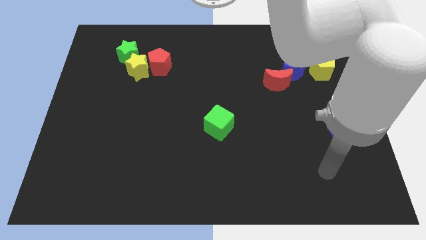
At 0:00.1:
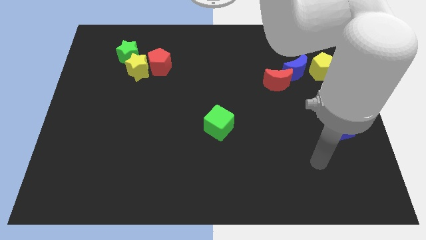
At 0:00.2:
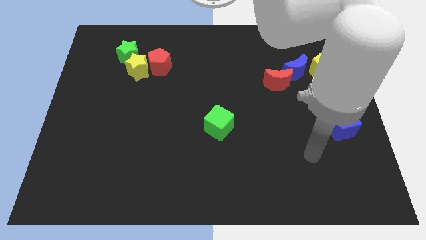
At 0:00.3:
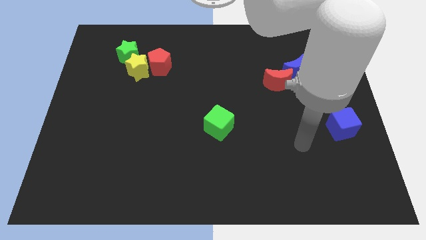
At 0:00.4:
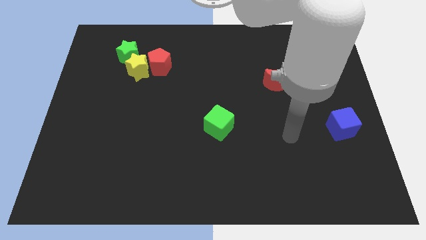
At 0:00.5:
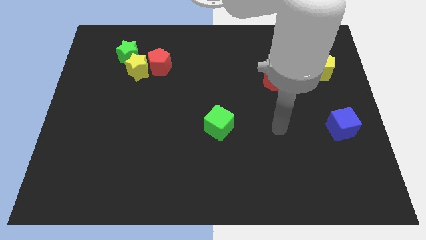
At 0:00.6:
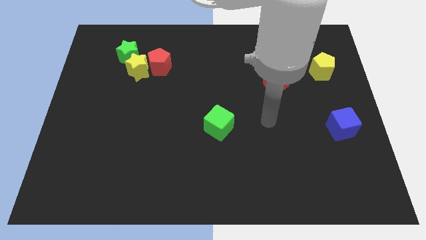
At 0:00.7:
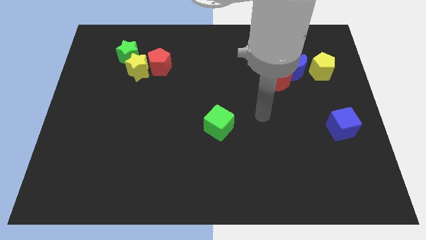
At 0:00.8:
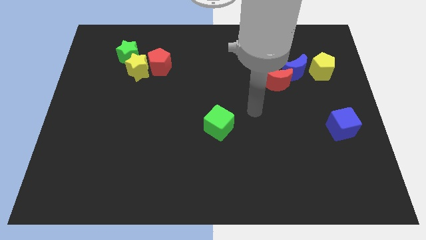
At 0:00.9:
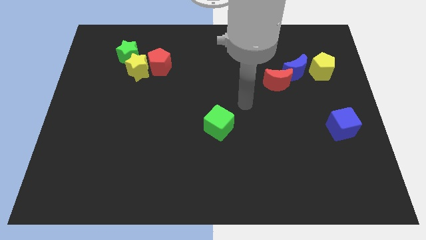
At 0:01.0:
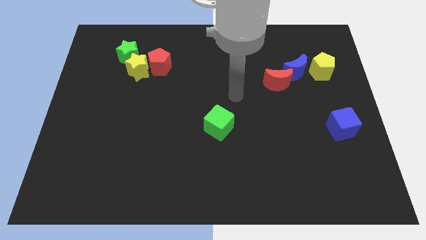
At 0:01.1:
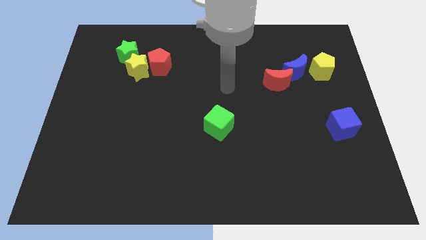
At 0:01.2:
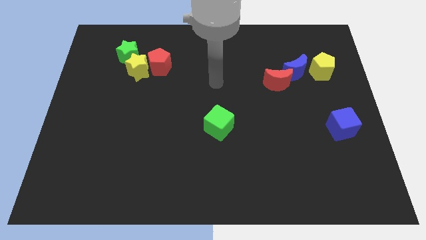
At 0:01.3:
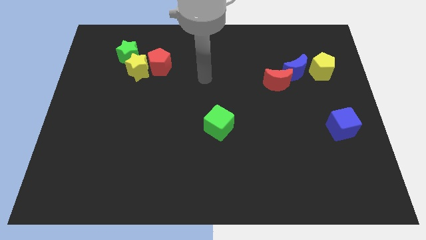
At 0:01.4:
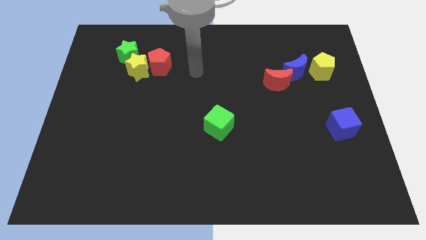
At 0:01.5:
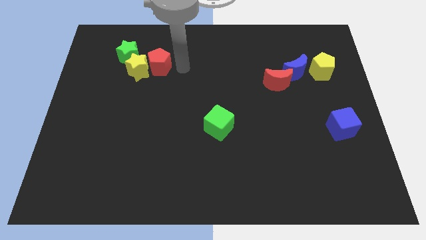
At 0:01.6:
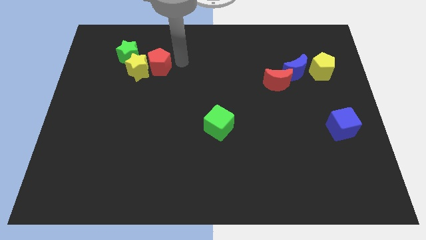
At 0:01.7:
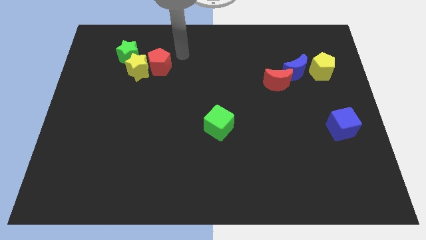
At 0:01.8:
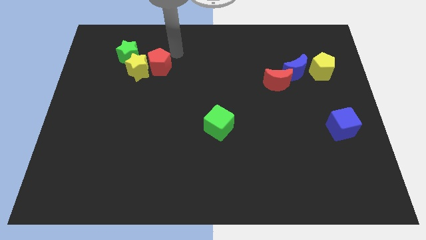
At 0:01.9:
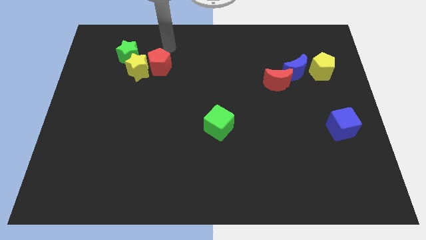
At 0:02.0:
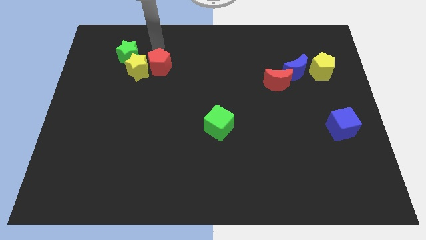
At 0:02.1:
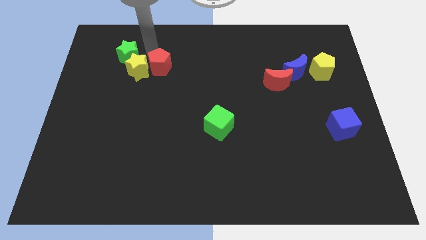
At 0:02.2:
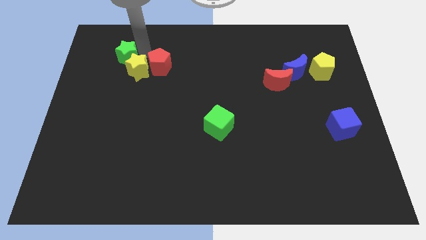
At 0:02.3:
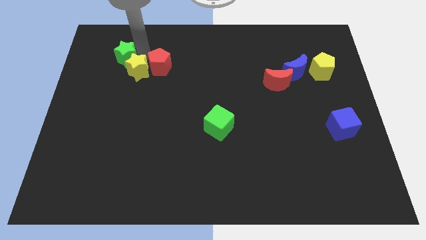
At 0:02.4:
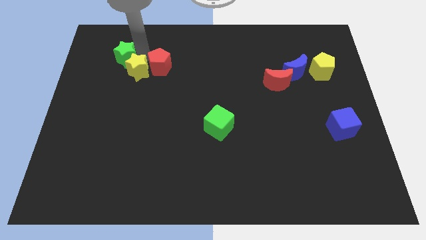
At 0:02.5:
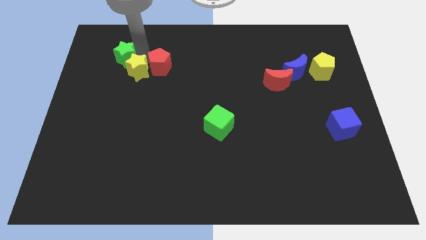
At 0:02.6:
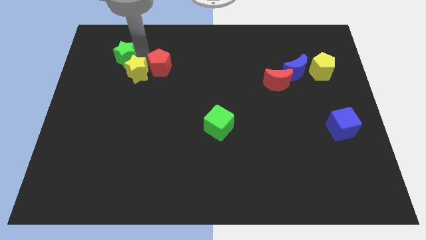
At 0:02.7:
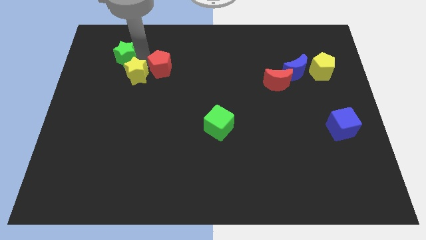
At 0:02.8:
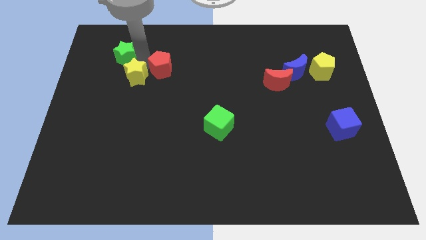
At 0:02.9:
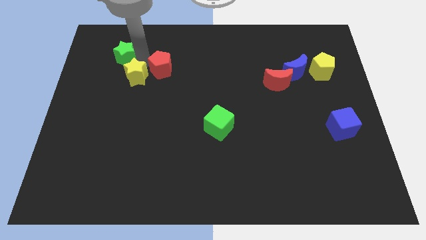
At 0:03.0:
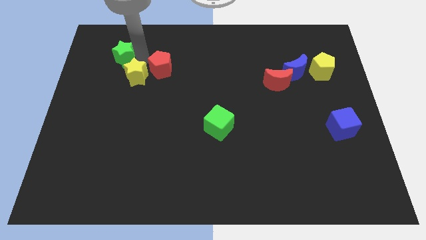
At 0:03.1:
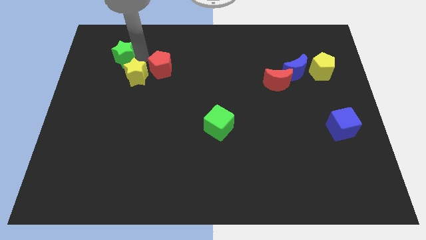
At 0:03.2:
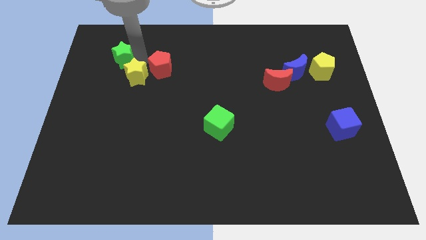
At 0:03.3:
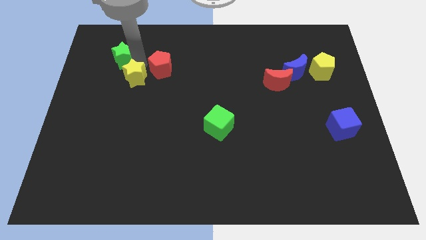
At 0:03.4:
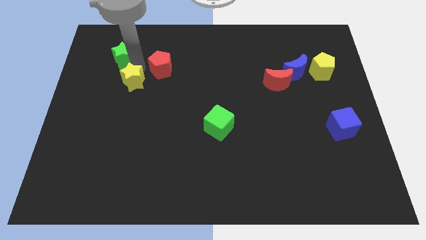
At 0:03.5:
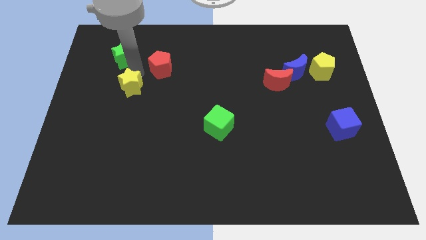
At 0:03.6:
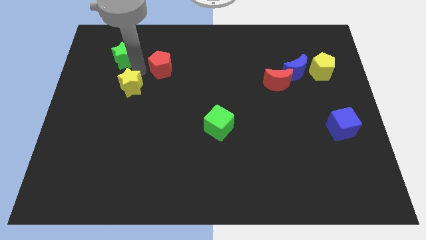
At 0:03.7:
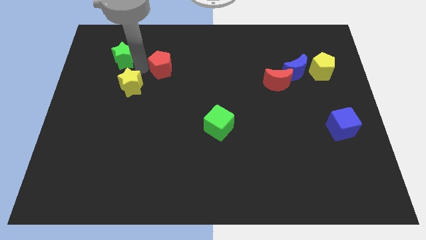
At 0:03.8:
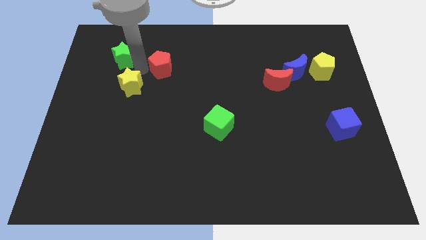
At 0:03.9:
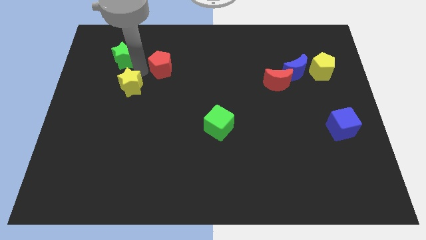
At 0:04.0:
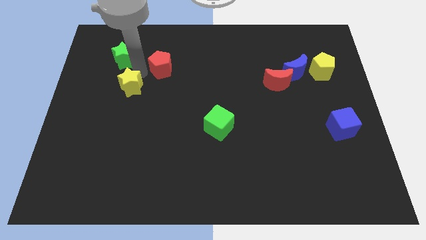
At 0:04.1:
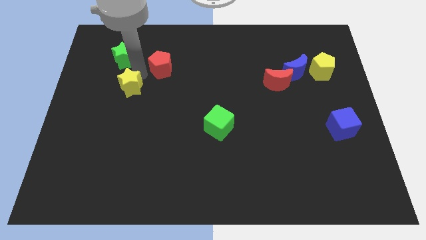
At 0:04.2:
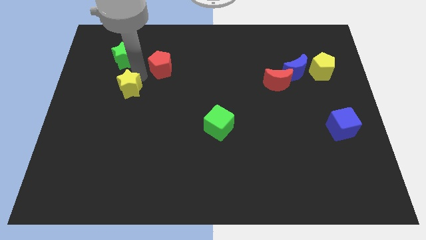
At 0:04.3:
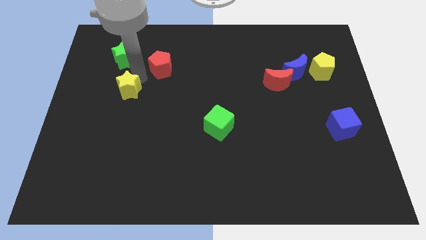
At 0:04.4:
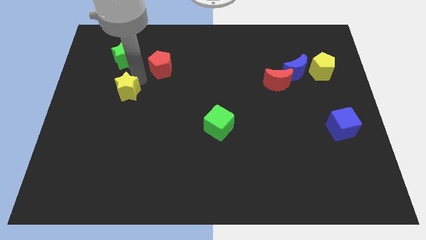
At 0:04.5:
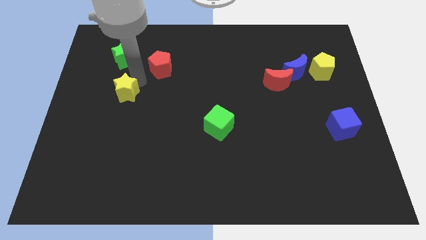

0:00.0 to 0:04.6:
separate the yellow star from the green star and red pentagon

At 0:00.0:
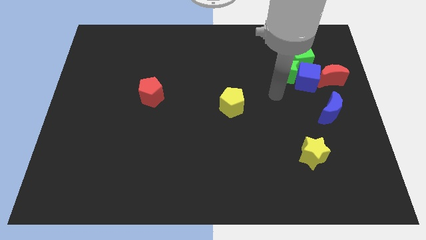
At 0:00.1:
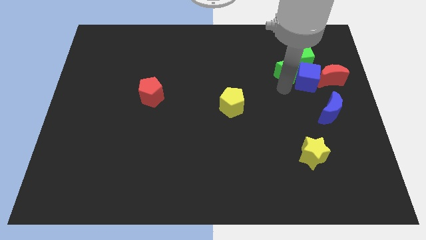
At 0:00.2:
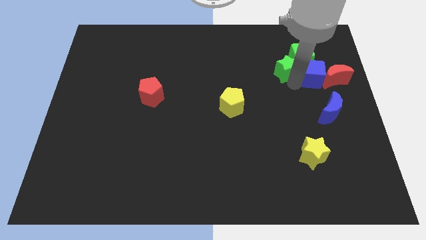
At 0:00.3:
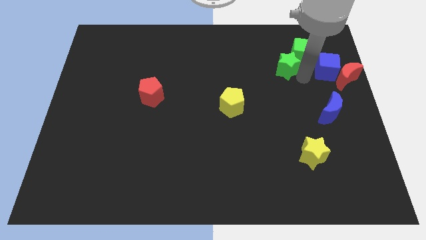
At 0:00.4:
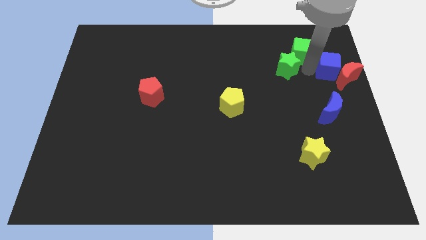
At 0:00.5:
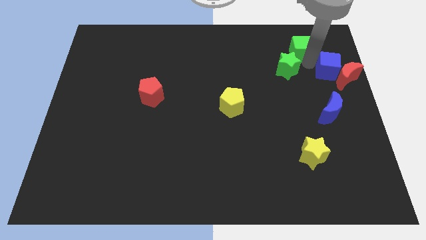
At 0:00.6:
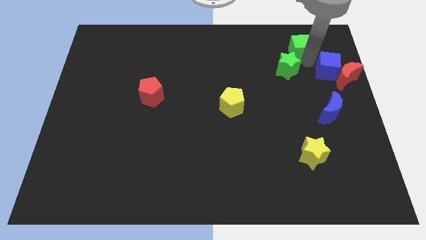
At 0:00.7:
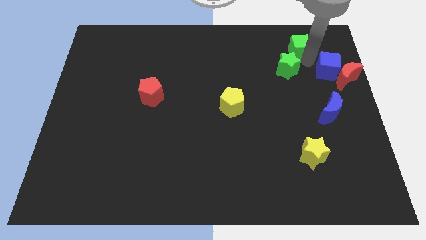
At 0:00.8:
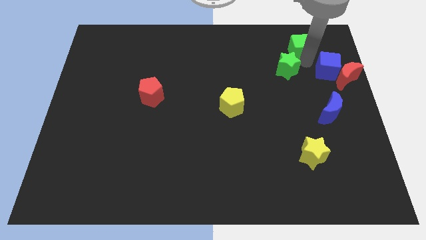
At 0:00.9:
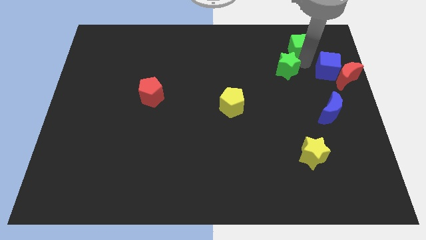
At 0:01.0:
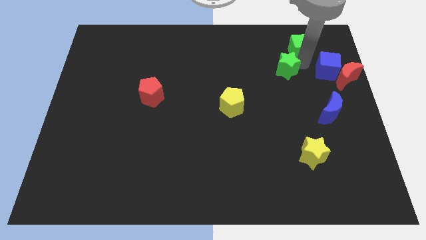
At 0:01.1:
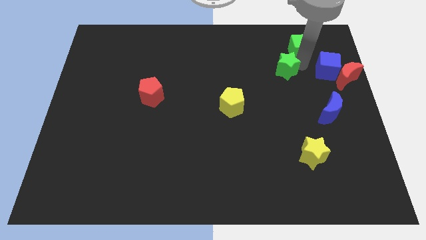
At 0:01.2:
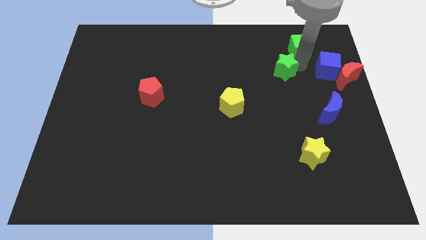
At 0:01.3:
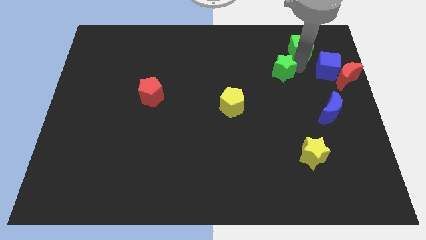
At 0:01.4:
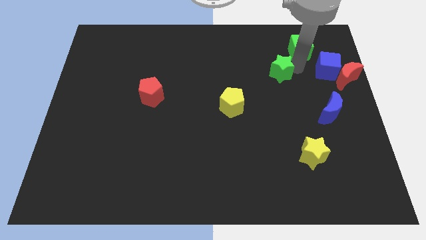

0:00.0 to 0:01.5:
move the green star away from the blue cube and green cube

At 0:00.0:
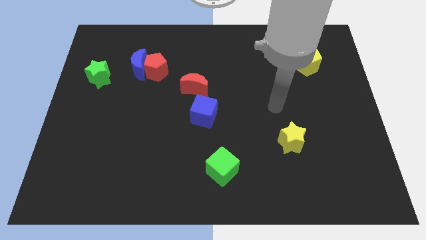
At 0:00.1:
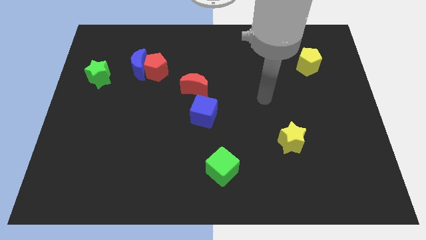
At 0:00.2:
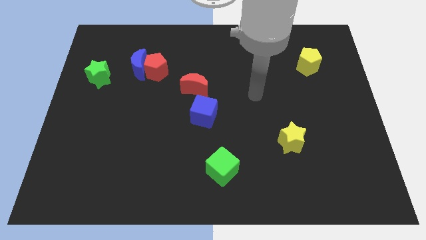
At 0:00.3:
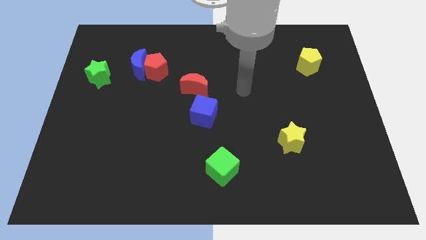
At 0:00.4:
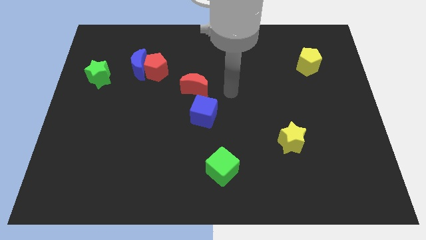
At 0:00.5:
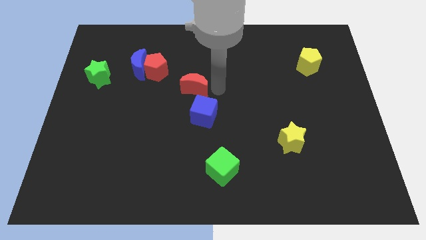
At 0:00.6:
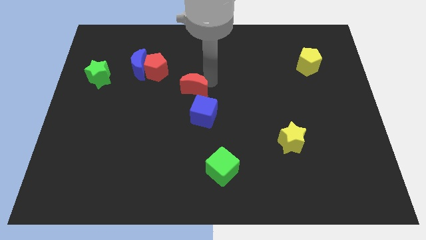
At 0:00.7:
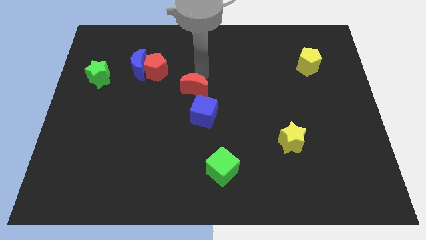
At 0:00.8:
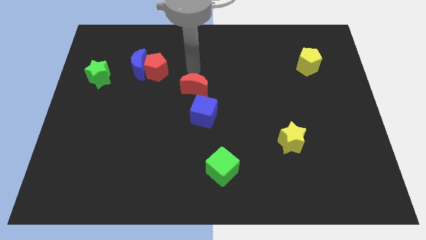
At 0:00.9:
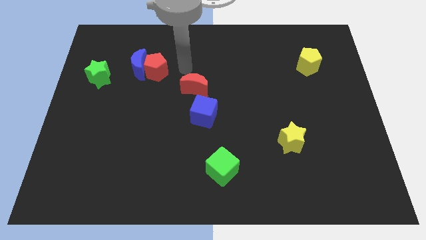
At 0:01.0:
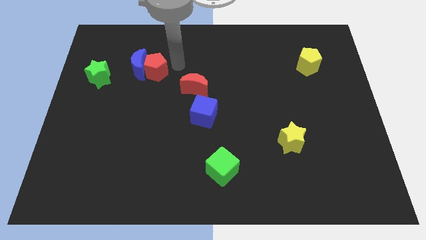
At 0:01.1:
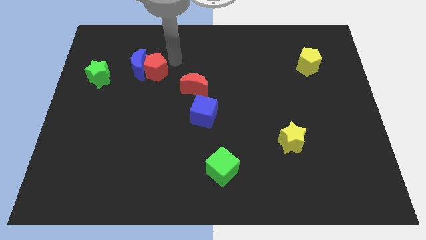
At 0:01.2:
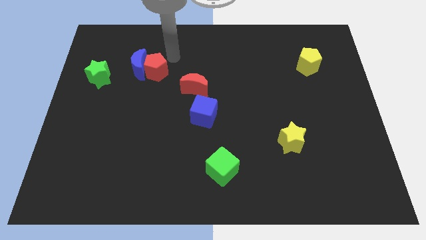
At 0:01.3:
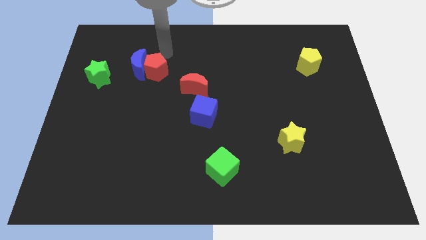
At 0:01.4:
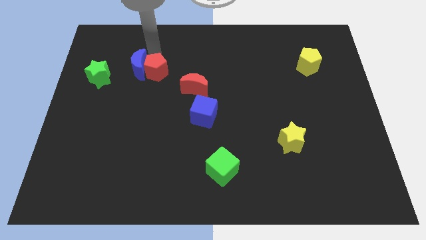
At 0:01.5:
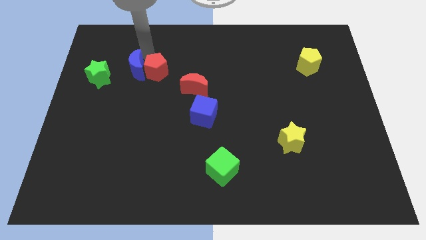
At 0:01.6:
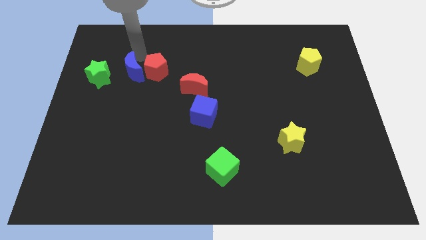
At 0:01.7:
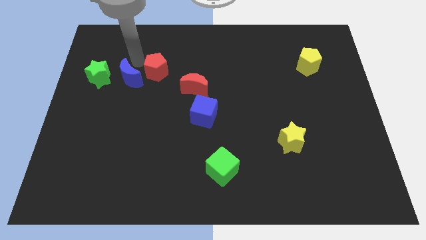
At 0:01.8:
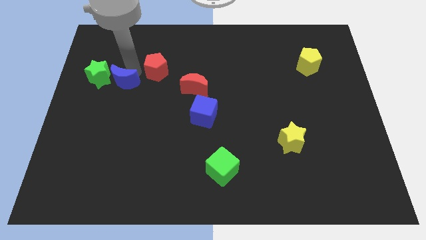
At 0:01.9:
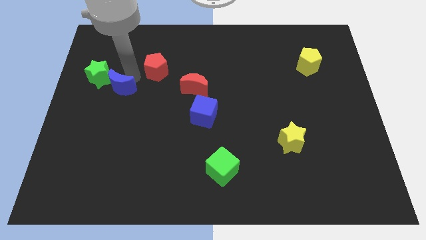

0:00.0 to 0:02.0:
separate the red pentagon from the blue moon

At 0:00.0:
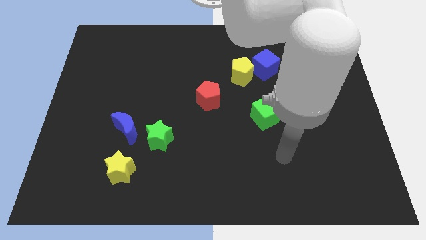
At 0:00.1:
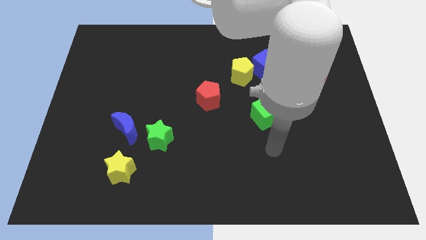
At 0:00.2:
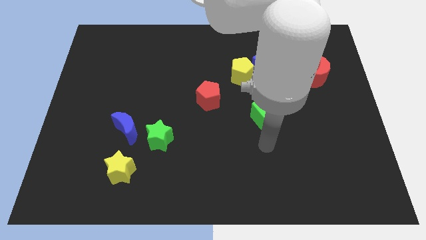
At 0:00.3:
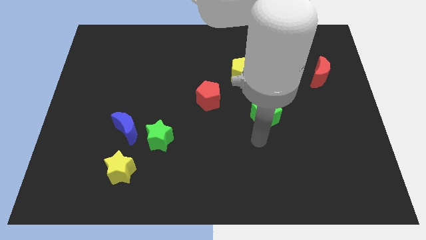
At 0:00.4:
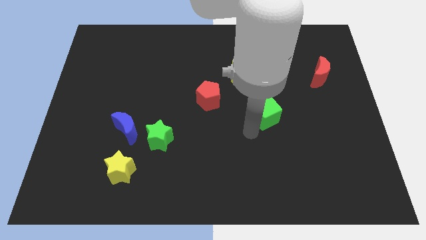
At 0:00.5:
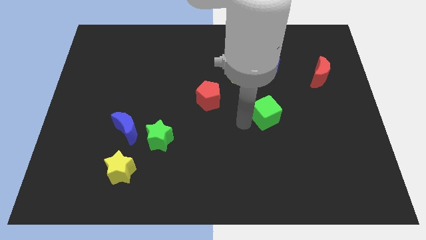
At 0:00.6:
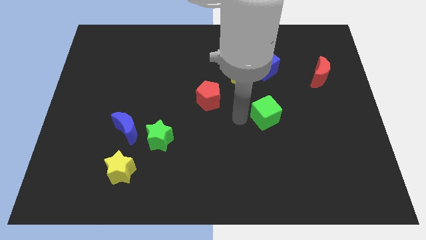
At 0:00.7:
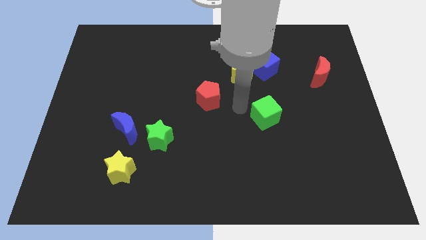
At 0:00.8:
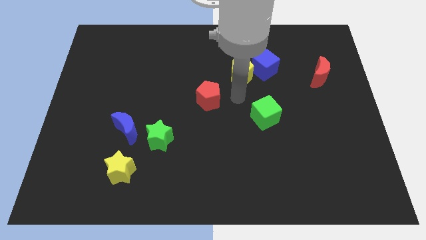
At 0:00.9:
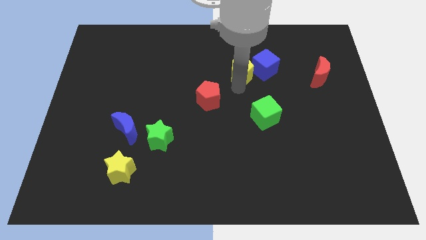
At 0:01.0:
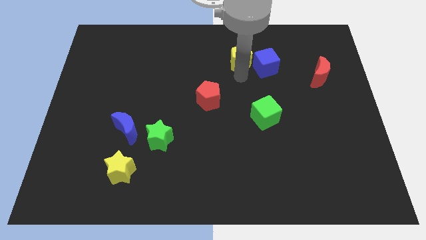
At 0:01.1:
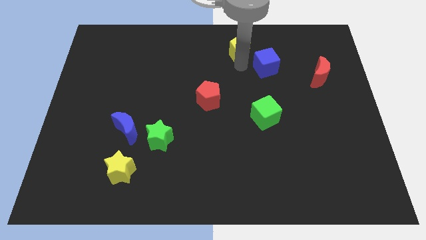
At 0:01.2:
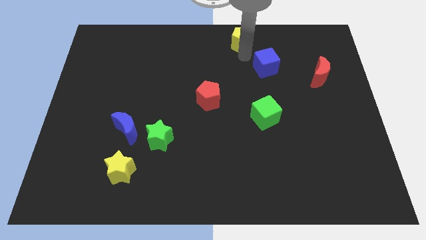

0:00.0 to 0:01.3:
move the blue cube away from the yellow pentagon
